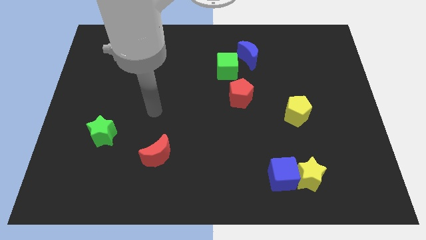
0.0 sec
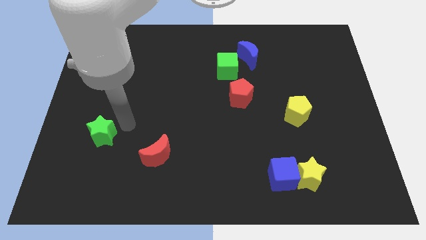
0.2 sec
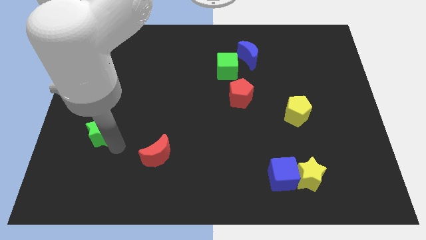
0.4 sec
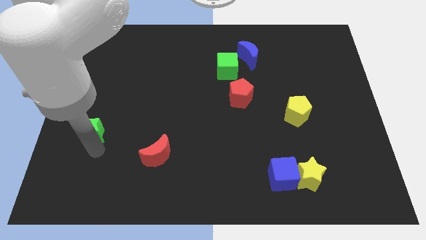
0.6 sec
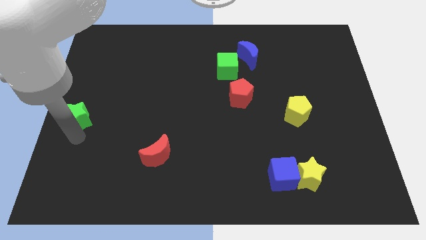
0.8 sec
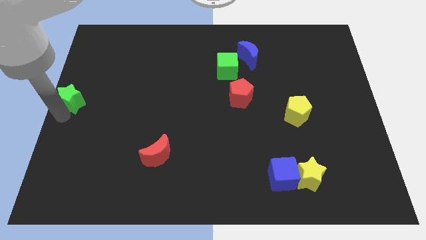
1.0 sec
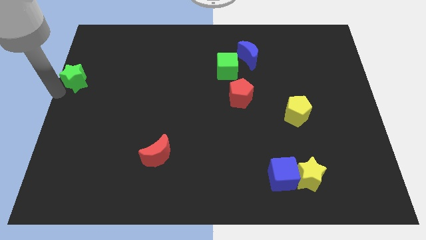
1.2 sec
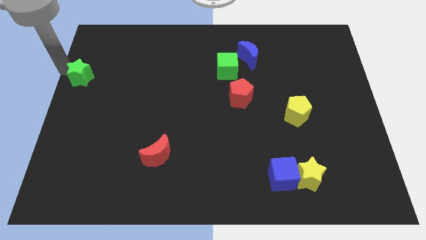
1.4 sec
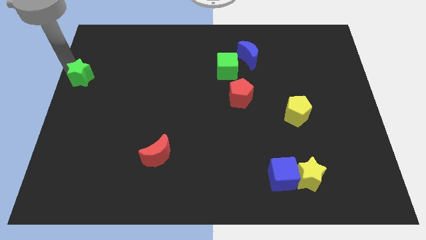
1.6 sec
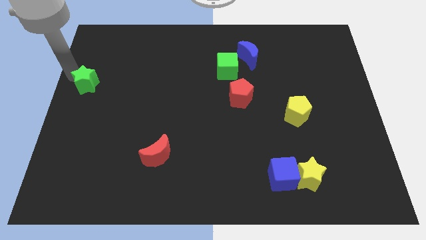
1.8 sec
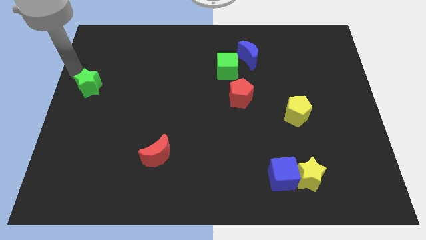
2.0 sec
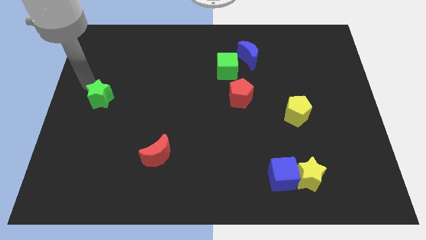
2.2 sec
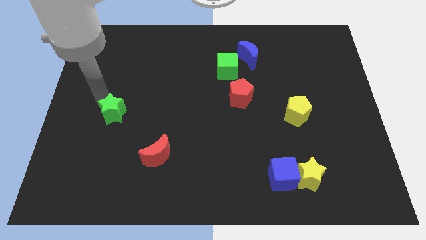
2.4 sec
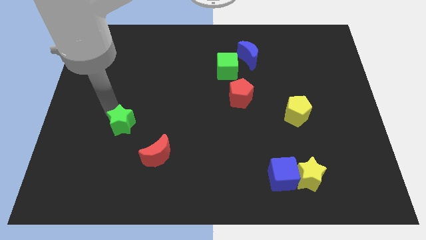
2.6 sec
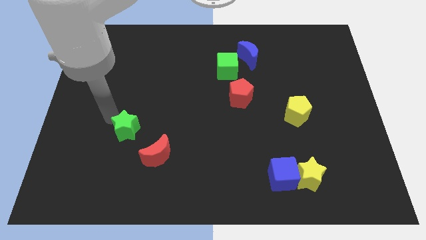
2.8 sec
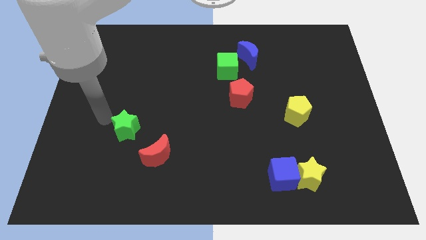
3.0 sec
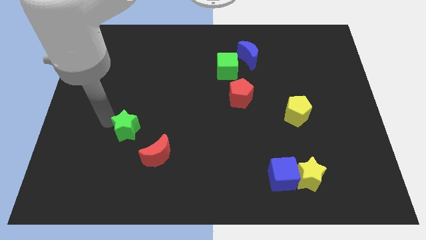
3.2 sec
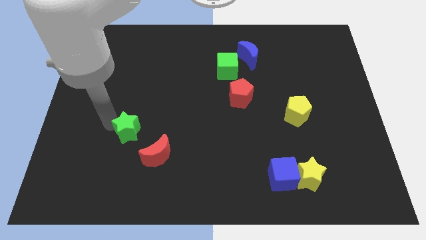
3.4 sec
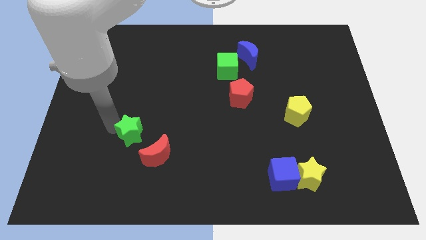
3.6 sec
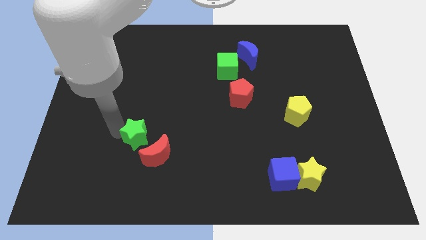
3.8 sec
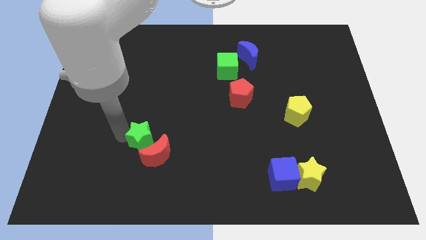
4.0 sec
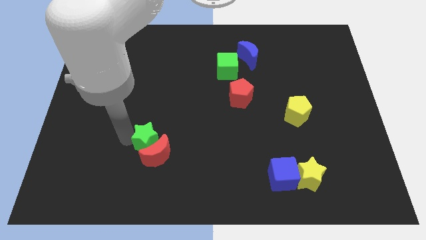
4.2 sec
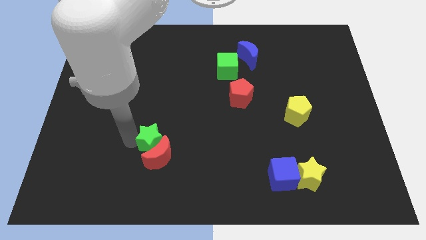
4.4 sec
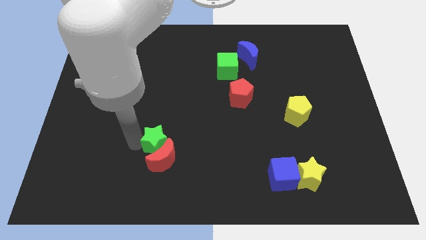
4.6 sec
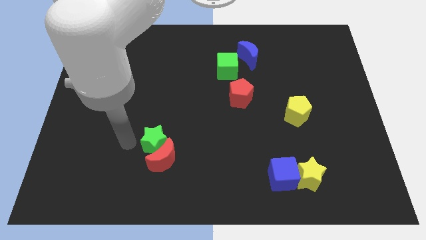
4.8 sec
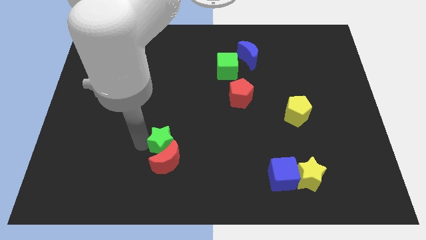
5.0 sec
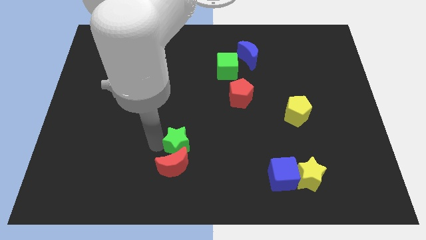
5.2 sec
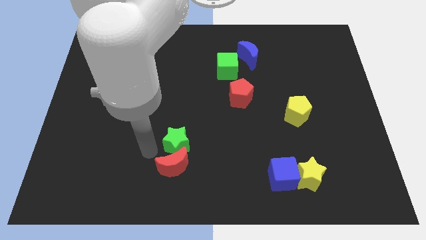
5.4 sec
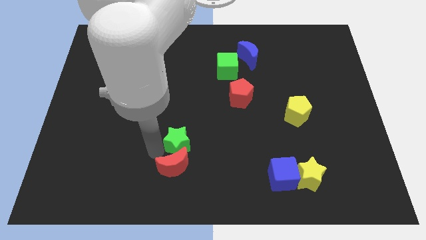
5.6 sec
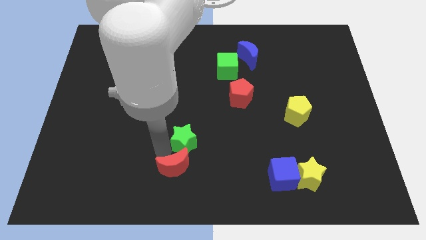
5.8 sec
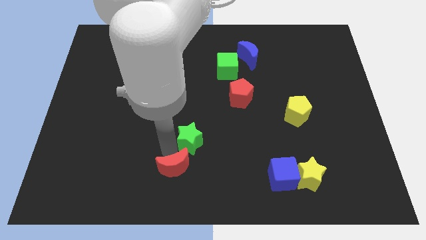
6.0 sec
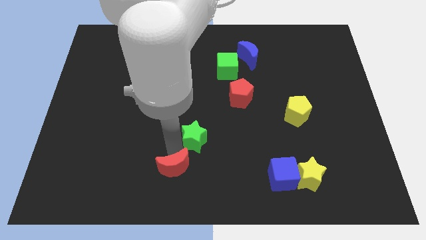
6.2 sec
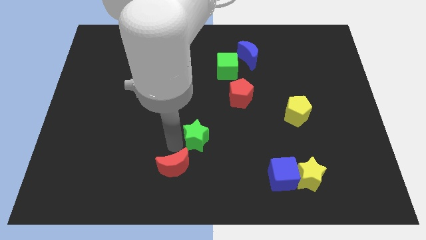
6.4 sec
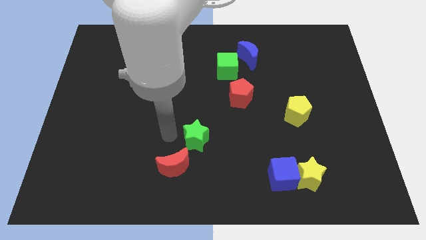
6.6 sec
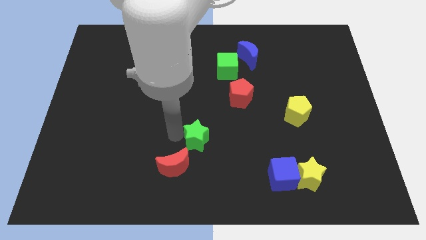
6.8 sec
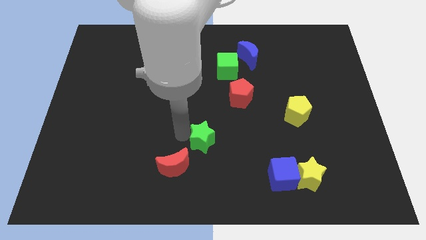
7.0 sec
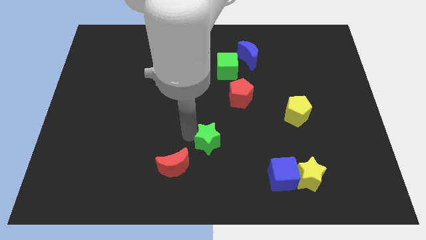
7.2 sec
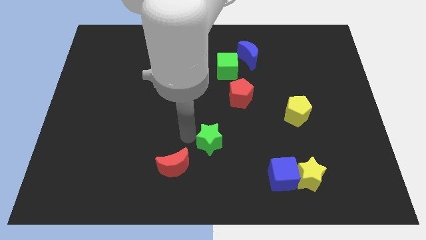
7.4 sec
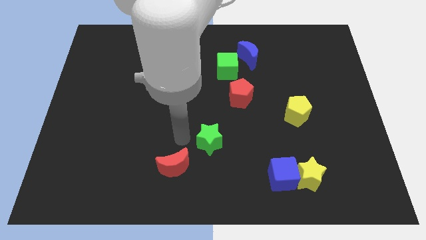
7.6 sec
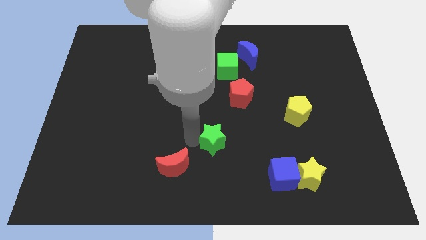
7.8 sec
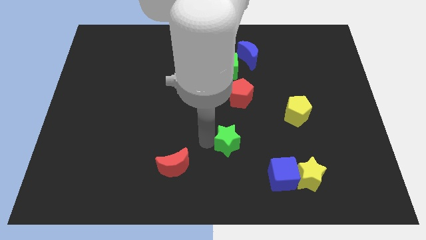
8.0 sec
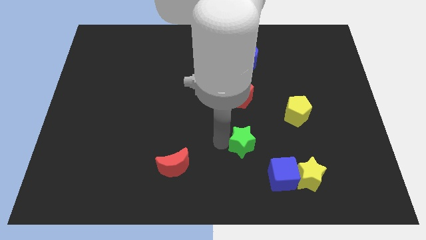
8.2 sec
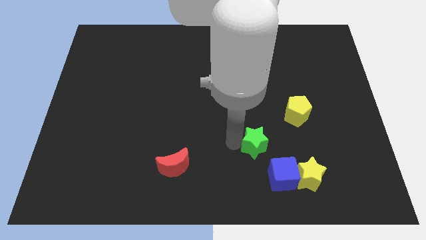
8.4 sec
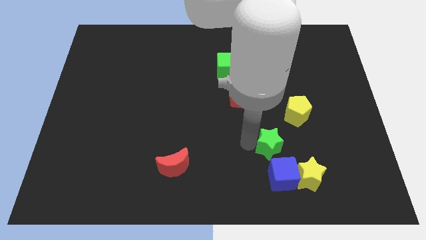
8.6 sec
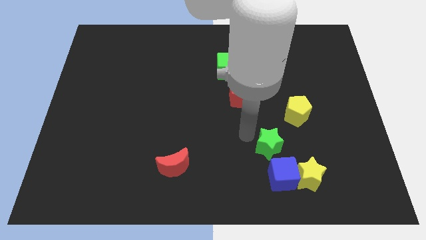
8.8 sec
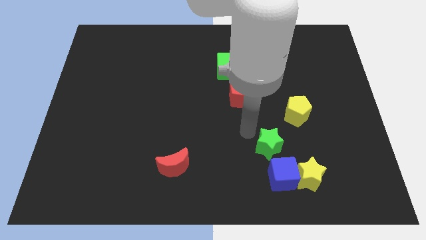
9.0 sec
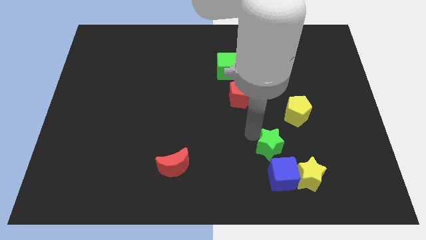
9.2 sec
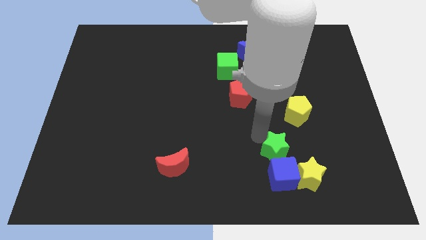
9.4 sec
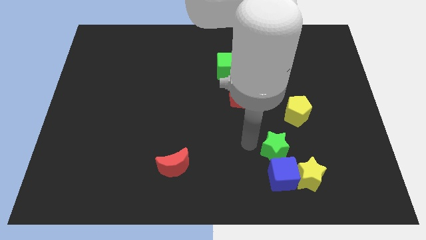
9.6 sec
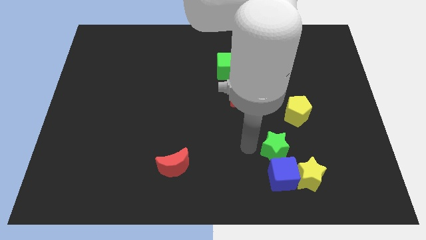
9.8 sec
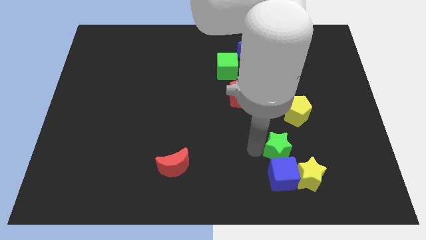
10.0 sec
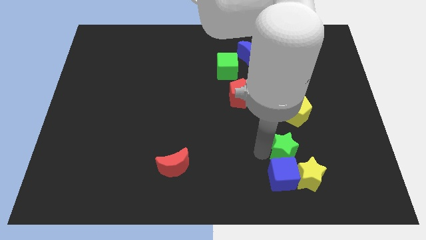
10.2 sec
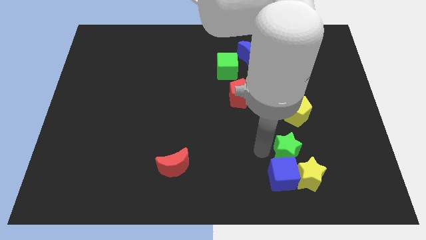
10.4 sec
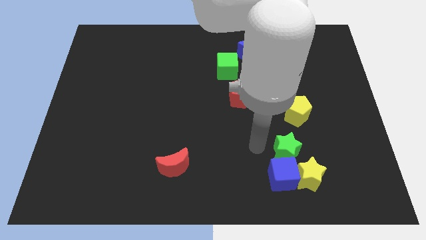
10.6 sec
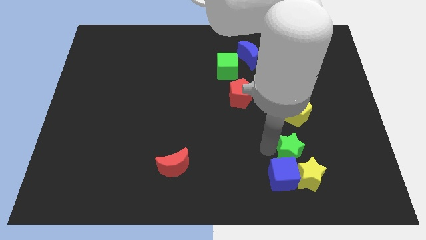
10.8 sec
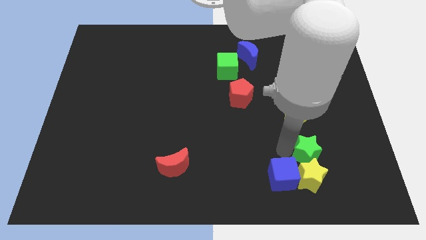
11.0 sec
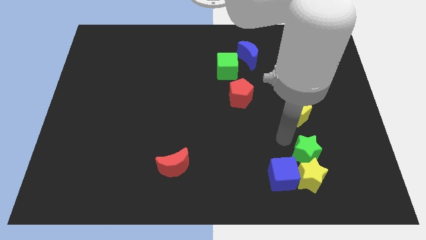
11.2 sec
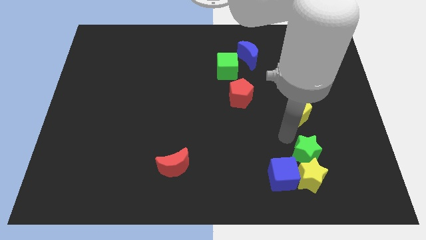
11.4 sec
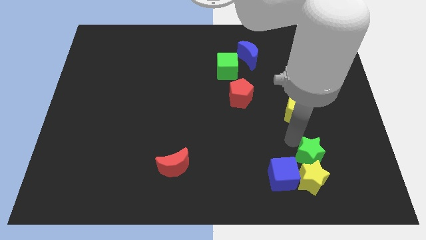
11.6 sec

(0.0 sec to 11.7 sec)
slide the green star to the right of the blue cube
